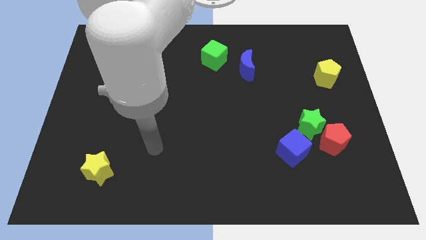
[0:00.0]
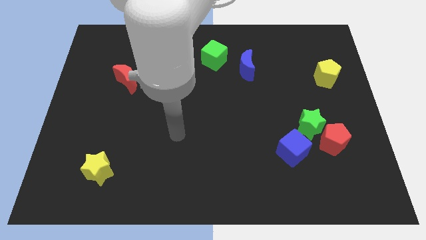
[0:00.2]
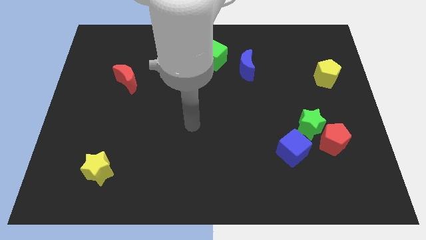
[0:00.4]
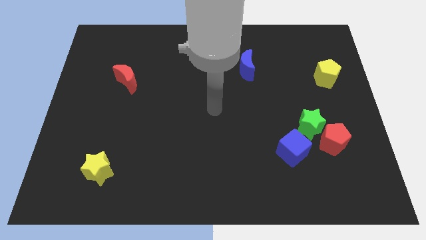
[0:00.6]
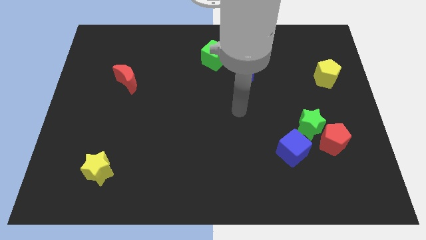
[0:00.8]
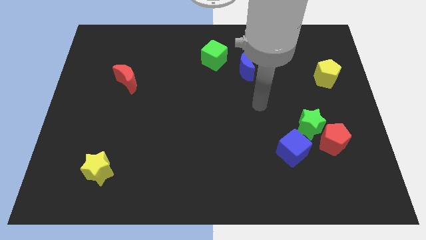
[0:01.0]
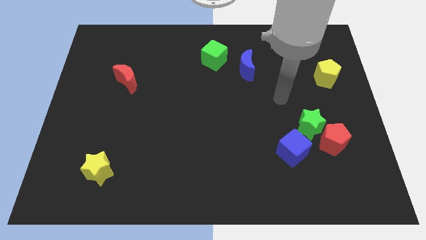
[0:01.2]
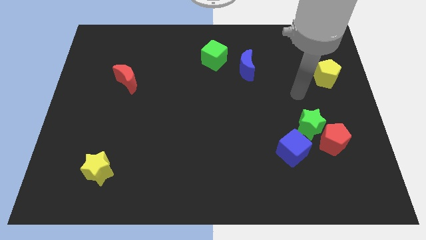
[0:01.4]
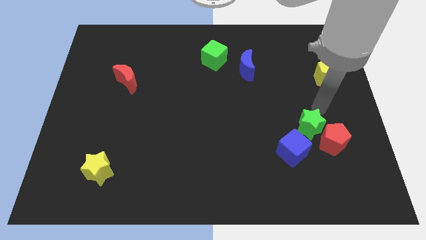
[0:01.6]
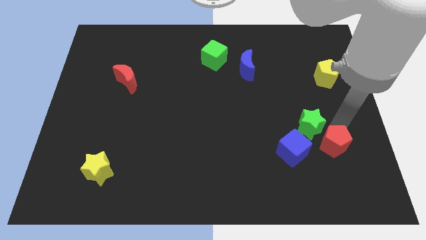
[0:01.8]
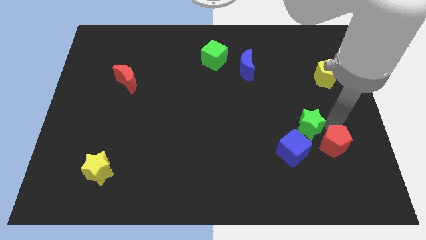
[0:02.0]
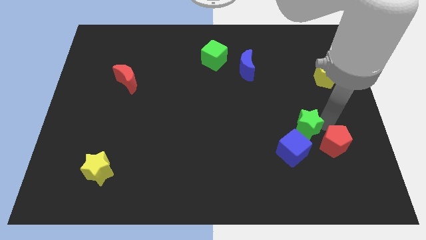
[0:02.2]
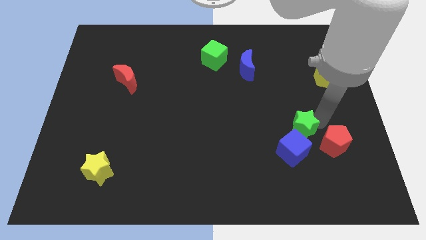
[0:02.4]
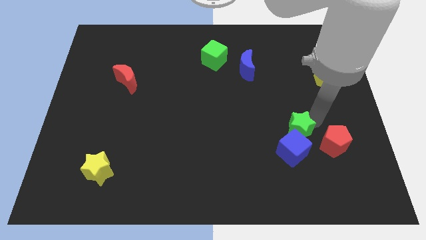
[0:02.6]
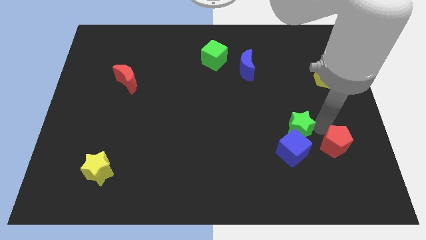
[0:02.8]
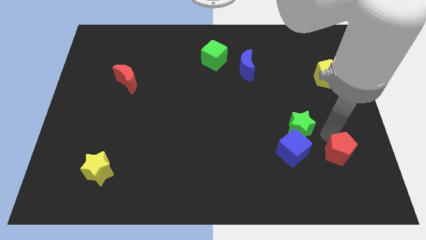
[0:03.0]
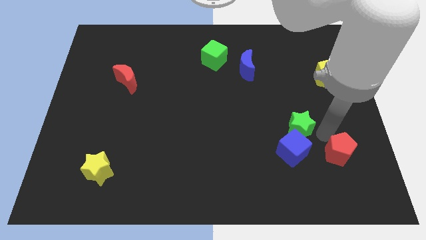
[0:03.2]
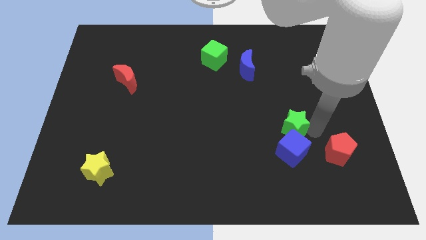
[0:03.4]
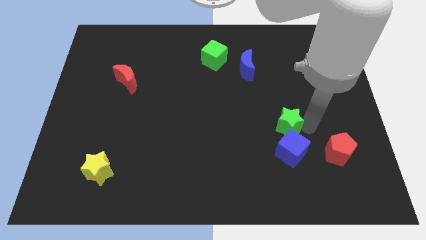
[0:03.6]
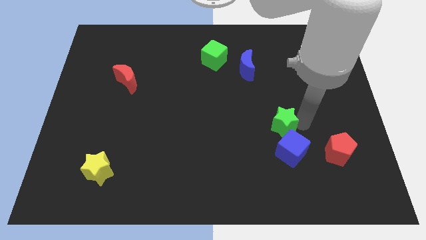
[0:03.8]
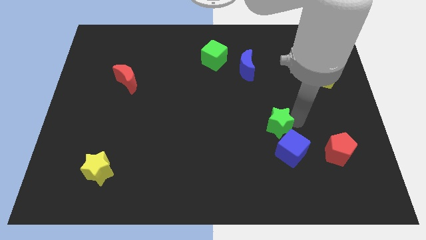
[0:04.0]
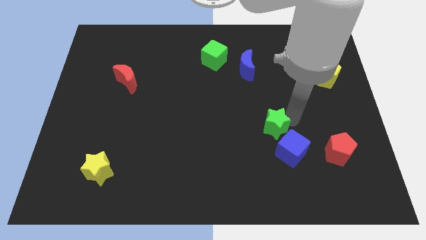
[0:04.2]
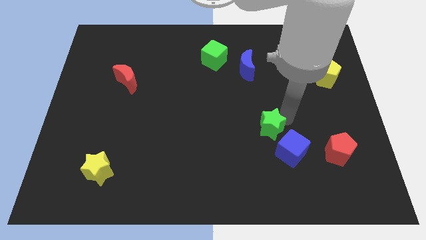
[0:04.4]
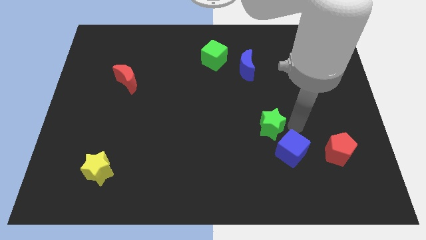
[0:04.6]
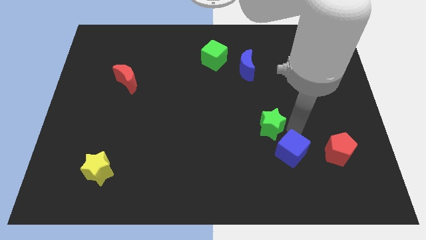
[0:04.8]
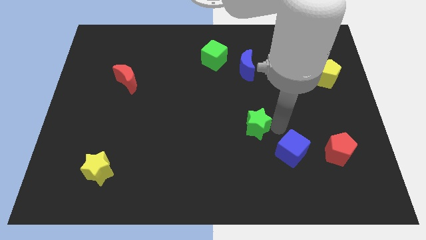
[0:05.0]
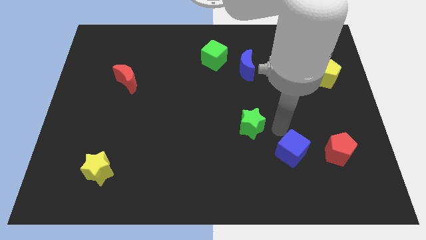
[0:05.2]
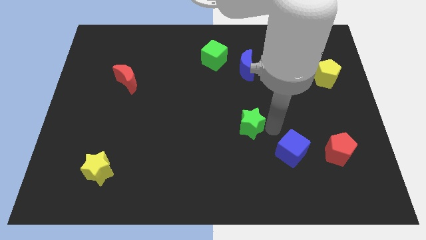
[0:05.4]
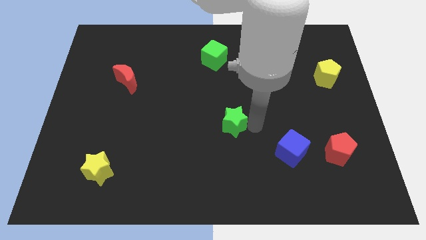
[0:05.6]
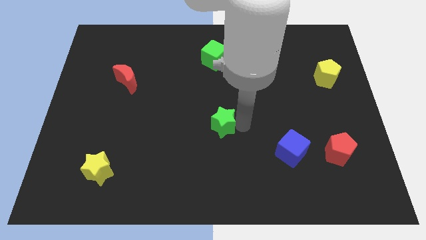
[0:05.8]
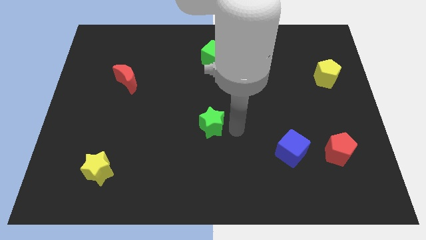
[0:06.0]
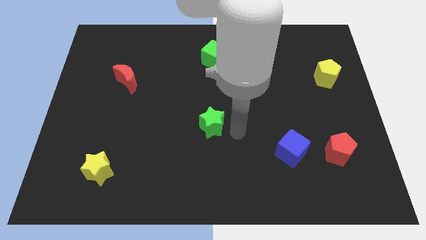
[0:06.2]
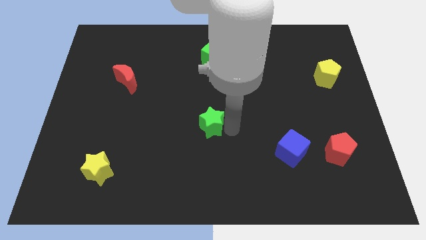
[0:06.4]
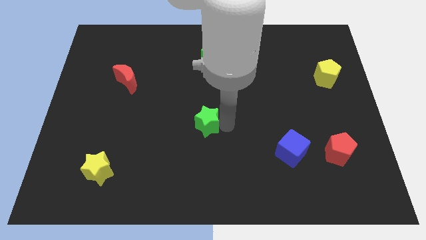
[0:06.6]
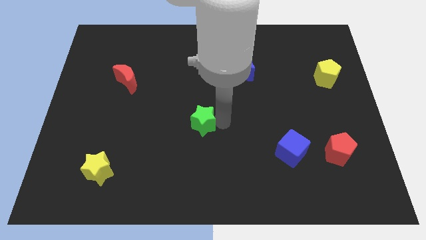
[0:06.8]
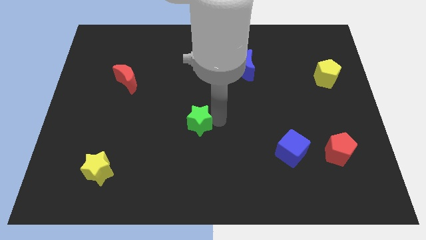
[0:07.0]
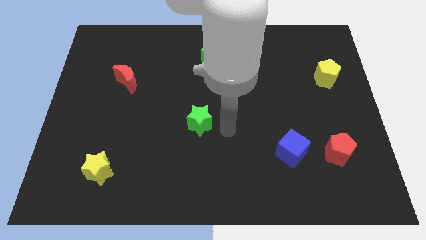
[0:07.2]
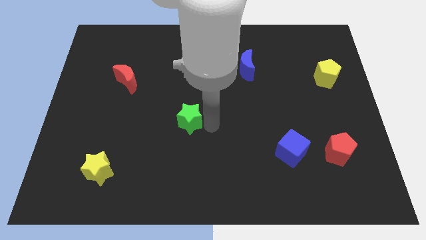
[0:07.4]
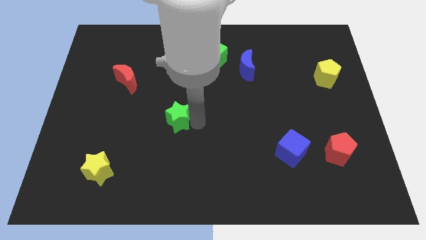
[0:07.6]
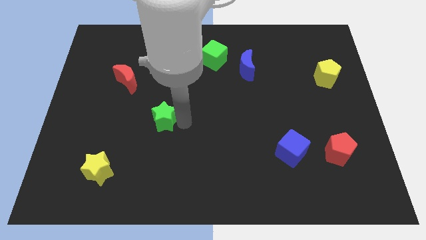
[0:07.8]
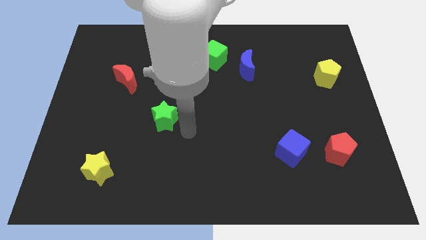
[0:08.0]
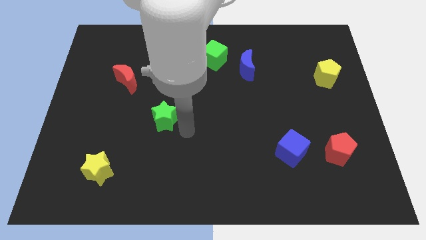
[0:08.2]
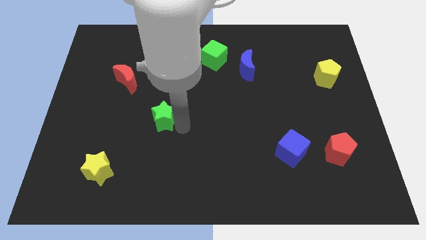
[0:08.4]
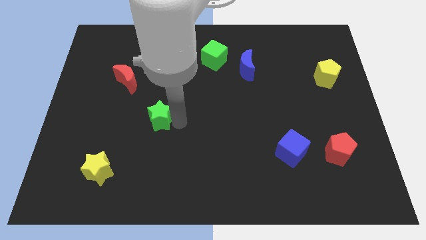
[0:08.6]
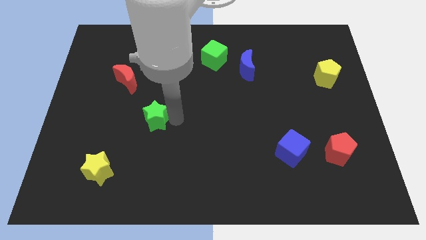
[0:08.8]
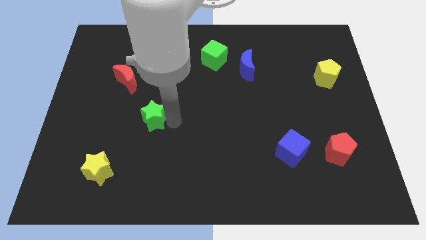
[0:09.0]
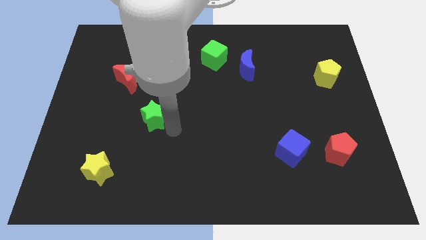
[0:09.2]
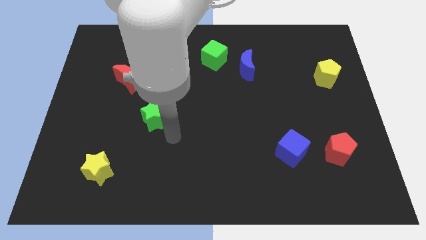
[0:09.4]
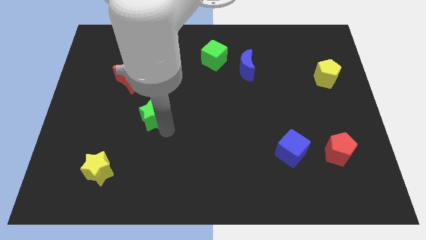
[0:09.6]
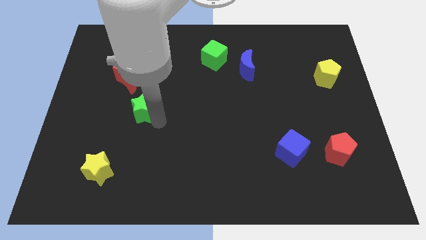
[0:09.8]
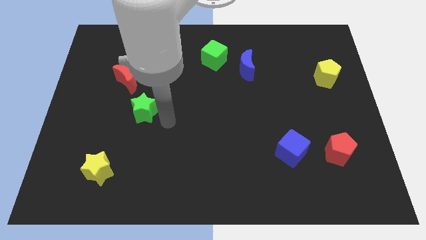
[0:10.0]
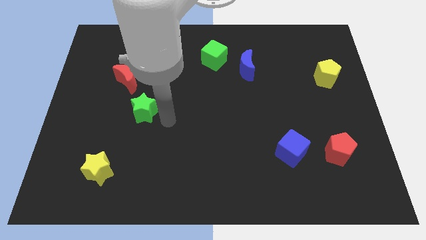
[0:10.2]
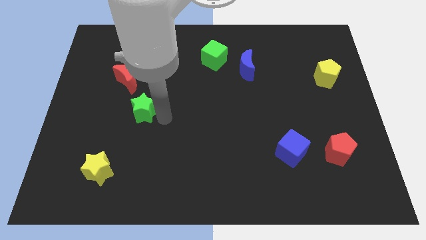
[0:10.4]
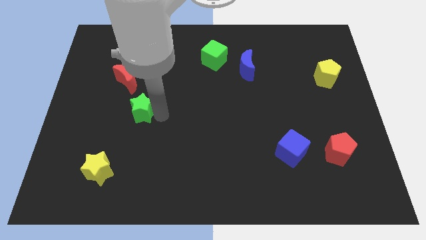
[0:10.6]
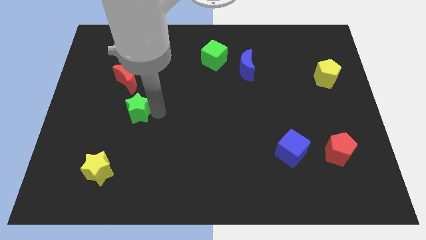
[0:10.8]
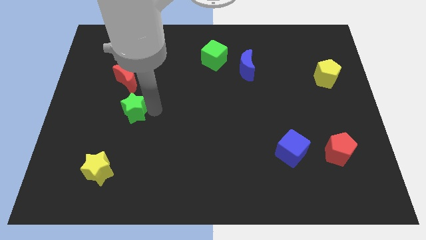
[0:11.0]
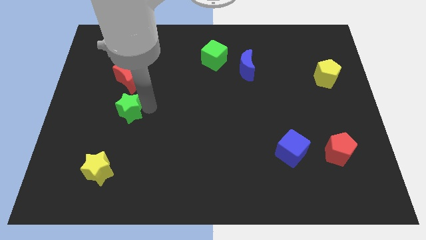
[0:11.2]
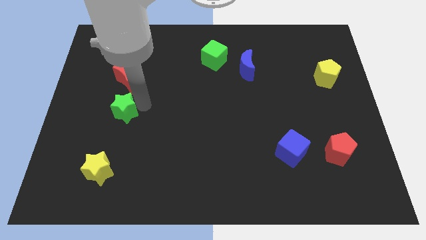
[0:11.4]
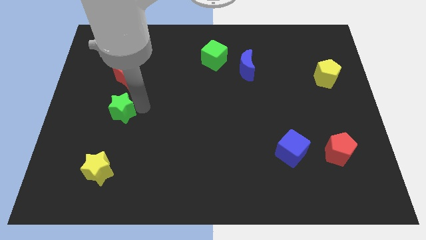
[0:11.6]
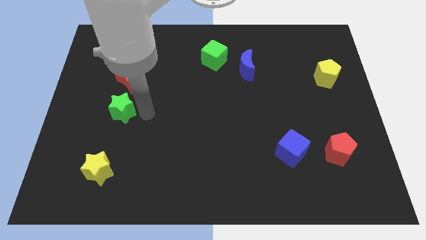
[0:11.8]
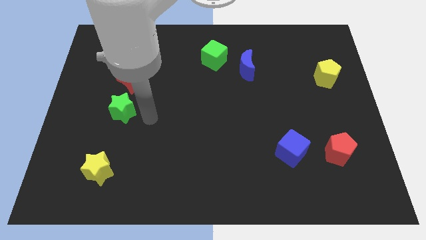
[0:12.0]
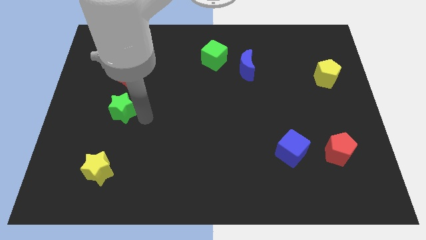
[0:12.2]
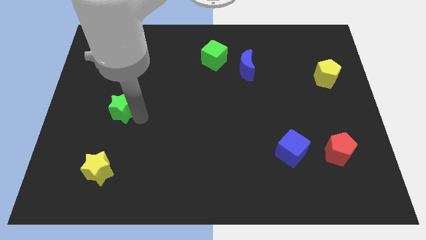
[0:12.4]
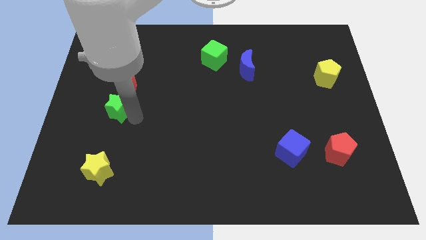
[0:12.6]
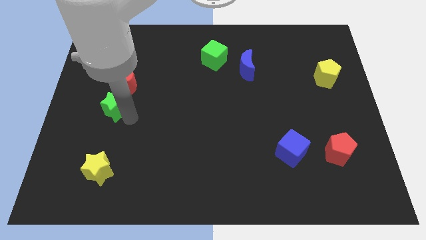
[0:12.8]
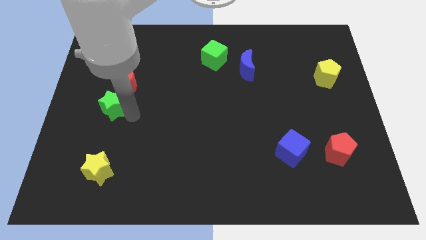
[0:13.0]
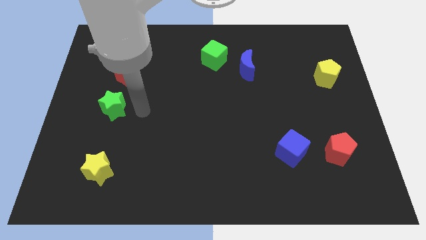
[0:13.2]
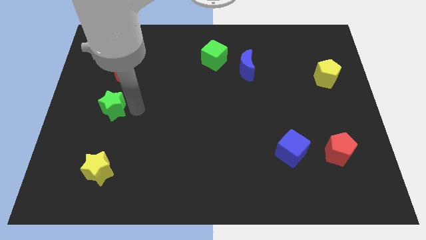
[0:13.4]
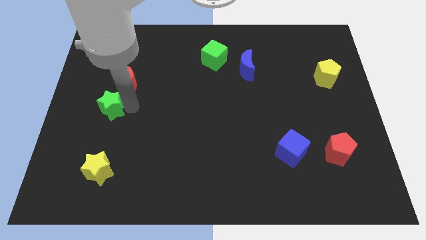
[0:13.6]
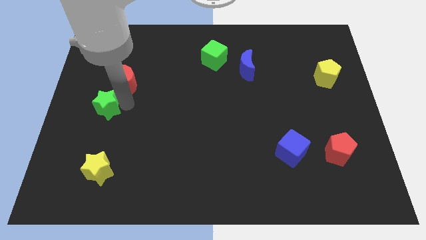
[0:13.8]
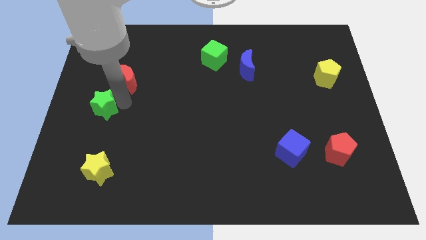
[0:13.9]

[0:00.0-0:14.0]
move the green star to the left side
